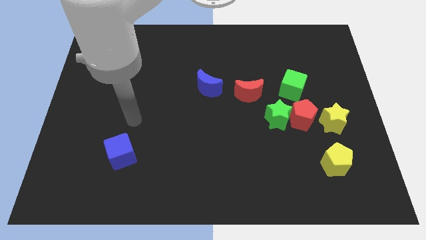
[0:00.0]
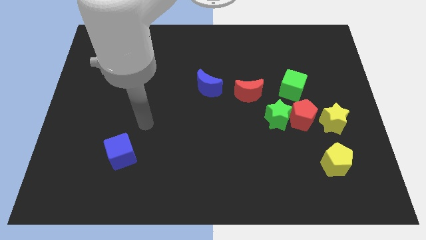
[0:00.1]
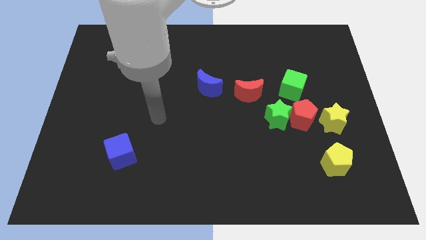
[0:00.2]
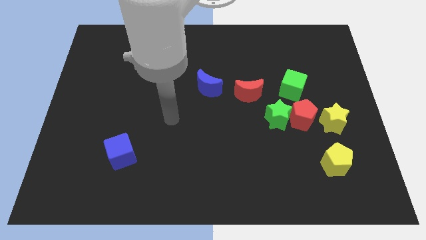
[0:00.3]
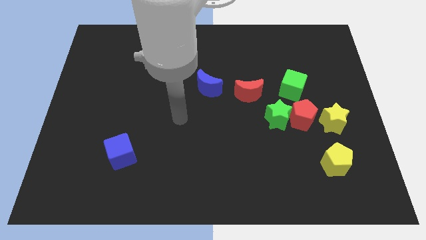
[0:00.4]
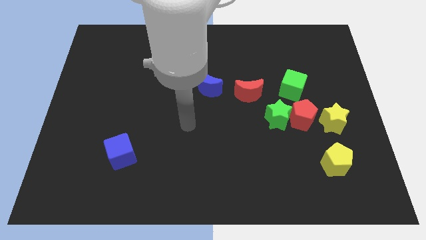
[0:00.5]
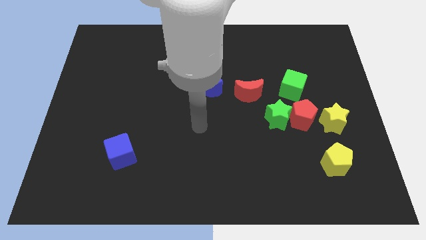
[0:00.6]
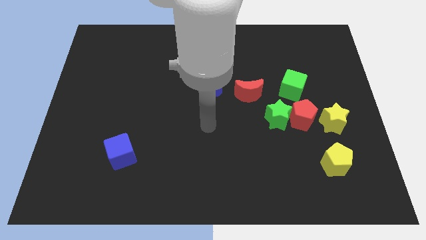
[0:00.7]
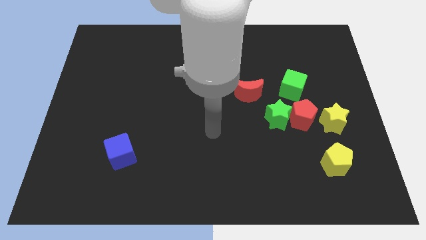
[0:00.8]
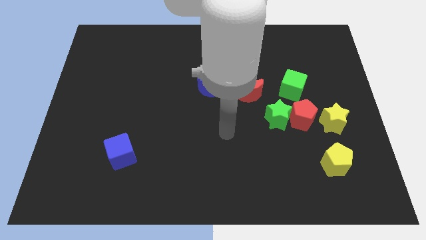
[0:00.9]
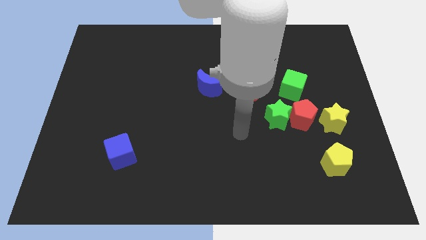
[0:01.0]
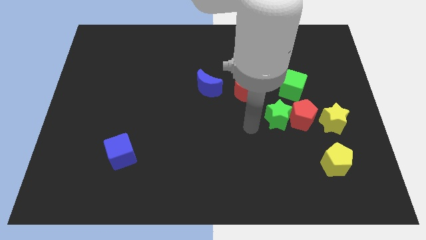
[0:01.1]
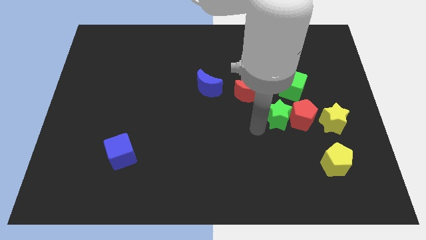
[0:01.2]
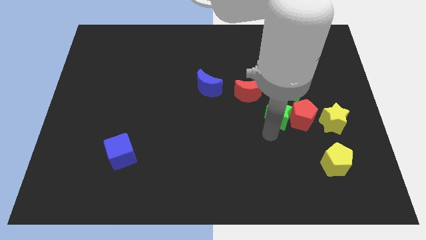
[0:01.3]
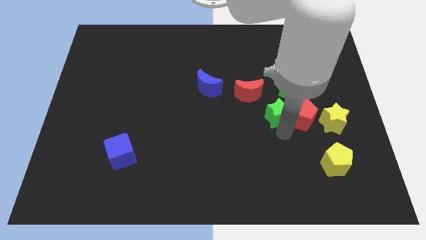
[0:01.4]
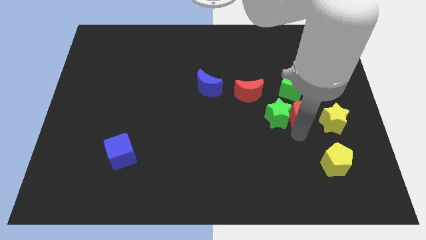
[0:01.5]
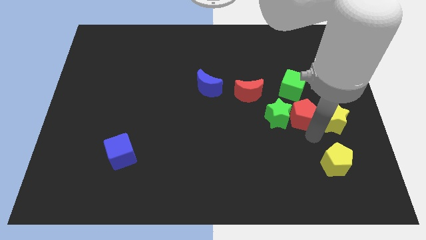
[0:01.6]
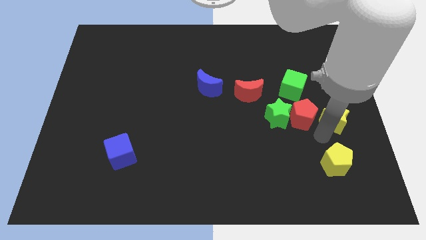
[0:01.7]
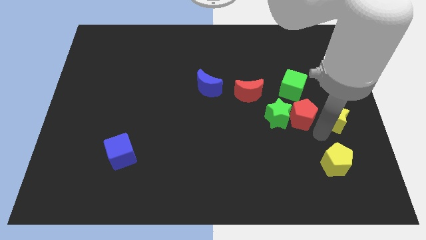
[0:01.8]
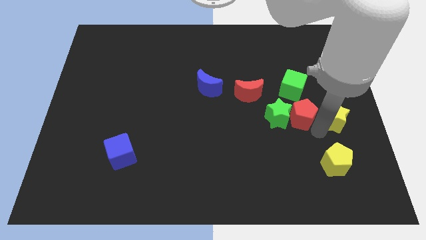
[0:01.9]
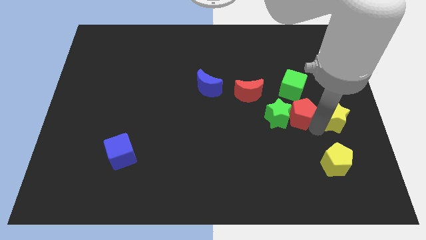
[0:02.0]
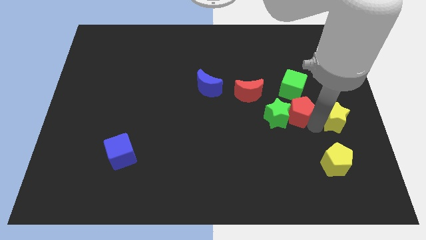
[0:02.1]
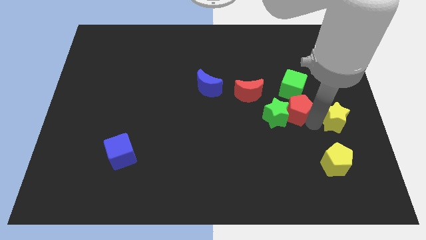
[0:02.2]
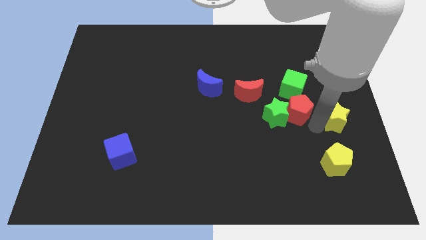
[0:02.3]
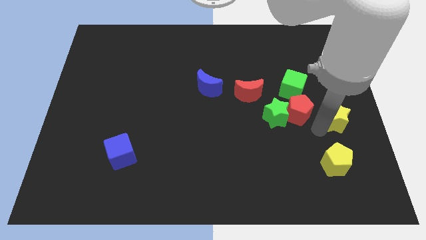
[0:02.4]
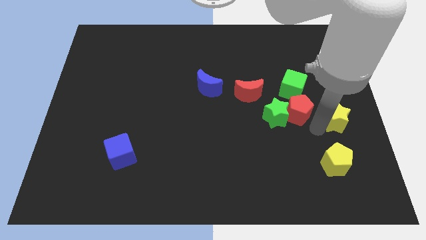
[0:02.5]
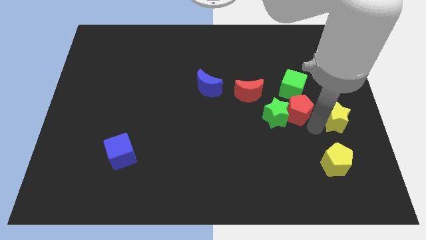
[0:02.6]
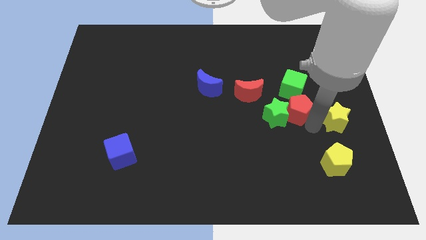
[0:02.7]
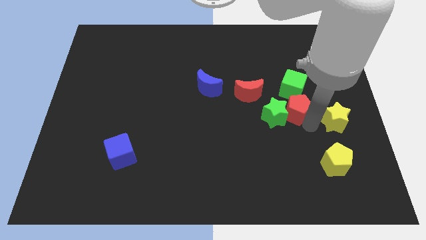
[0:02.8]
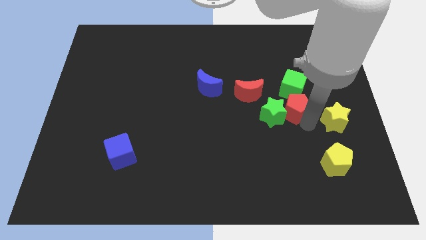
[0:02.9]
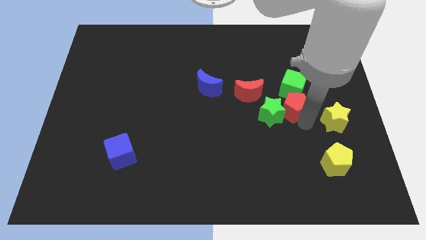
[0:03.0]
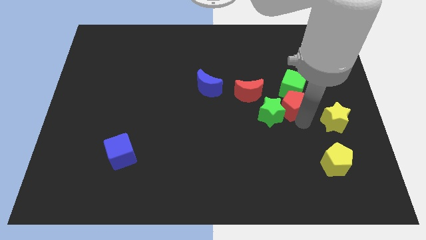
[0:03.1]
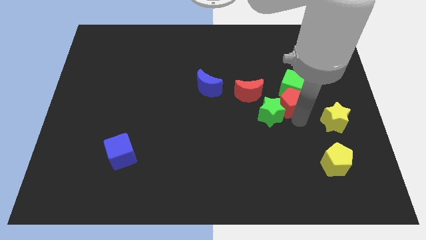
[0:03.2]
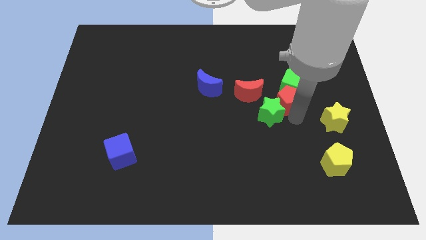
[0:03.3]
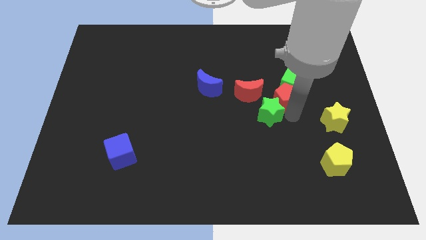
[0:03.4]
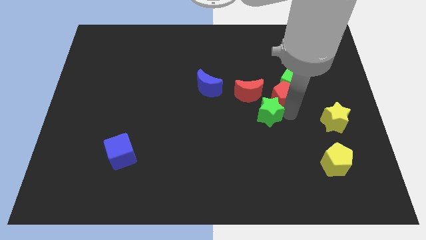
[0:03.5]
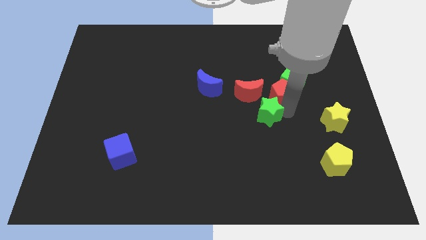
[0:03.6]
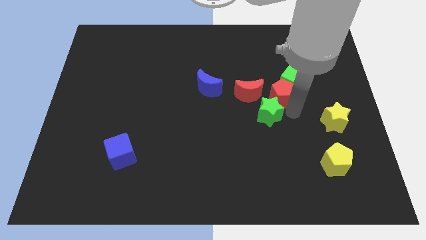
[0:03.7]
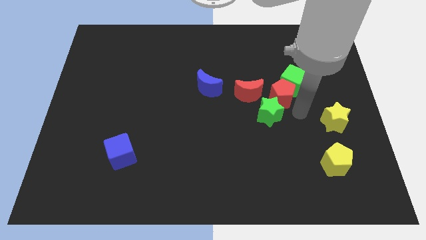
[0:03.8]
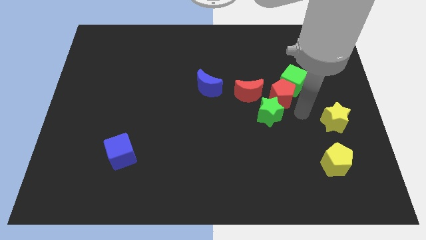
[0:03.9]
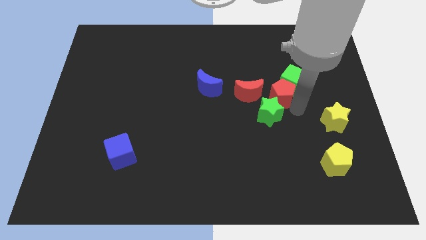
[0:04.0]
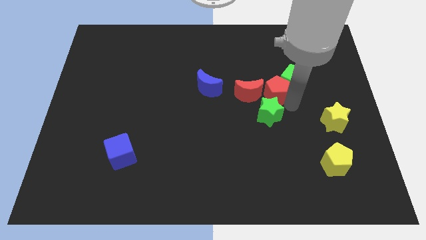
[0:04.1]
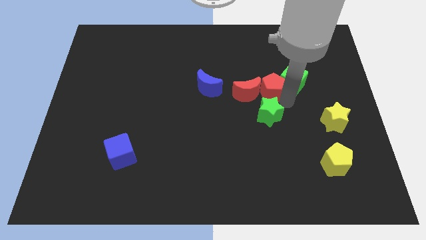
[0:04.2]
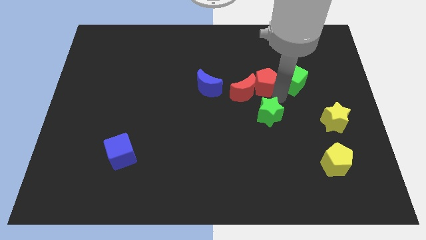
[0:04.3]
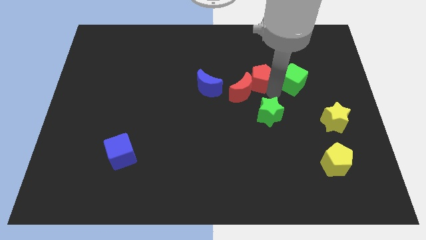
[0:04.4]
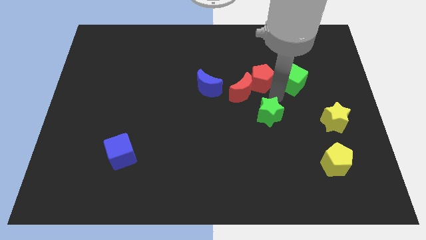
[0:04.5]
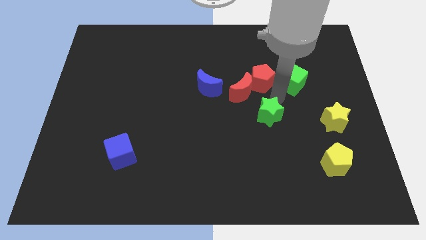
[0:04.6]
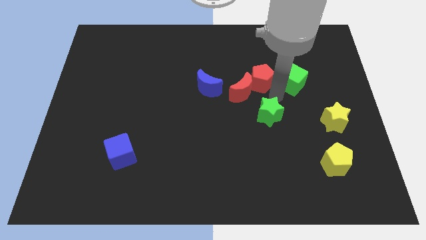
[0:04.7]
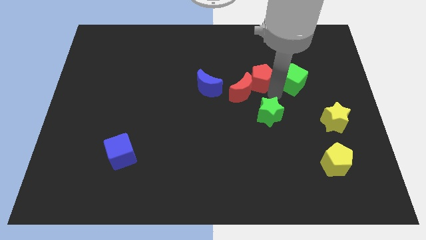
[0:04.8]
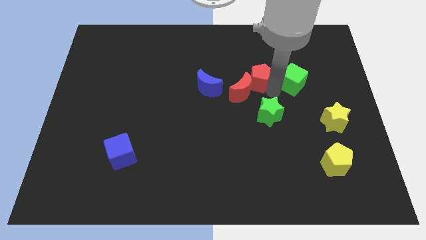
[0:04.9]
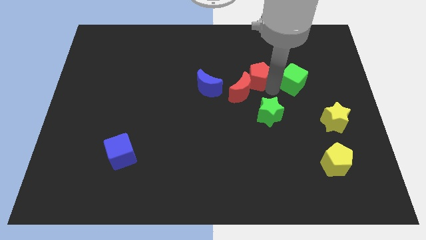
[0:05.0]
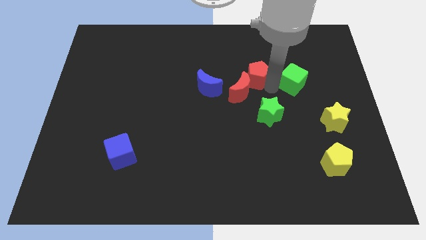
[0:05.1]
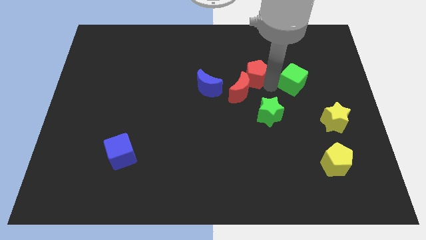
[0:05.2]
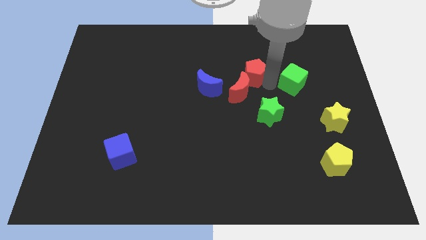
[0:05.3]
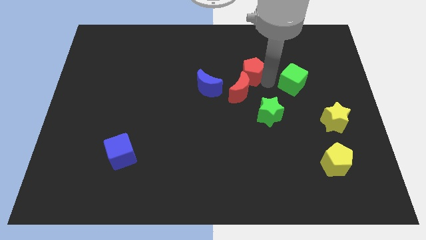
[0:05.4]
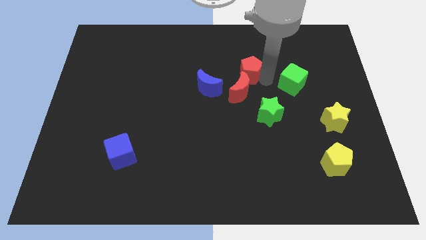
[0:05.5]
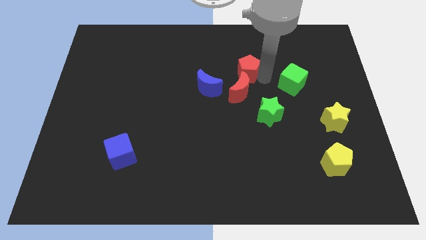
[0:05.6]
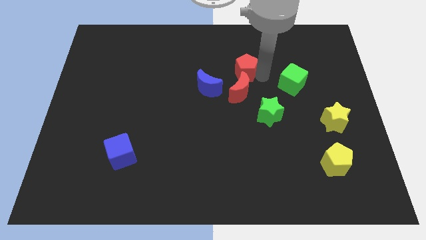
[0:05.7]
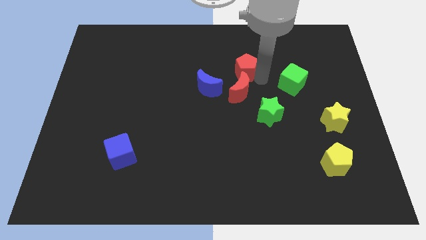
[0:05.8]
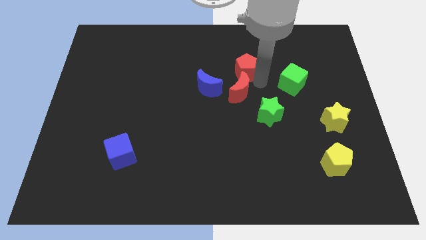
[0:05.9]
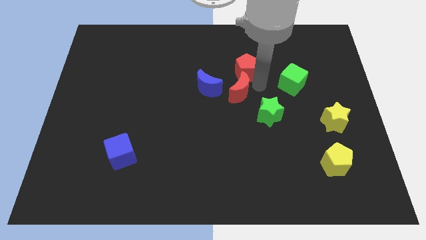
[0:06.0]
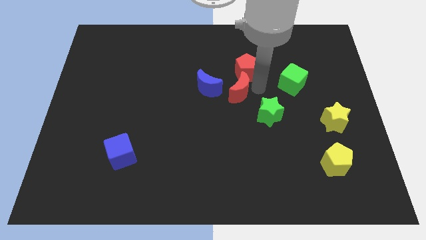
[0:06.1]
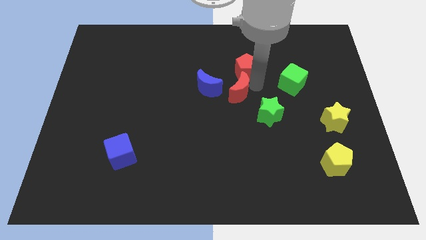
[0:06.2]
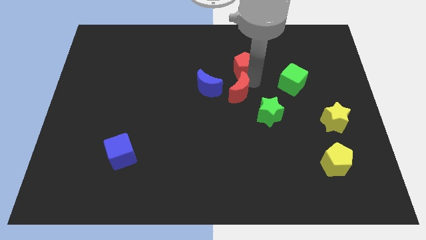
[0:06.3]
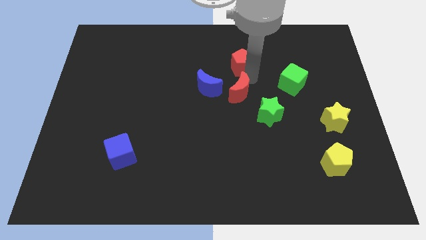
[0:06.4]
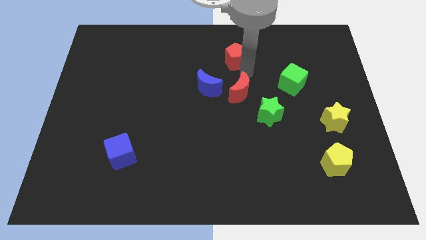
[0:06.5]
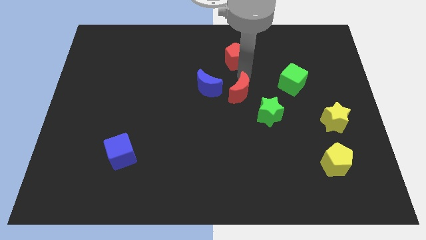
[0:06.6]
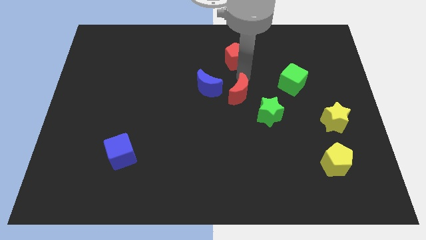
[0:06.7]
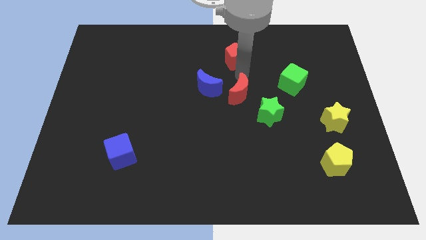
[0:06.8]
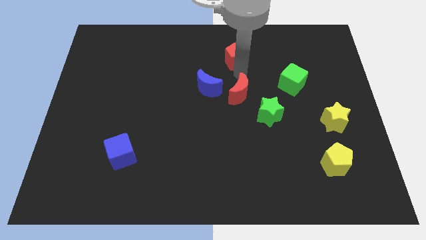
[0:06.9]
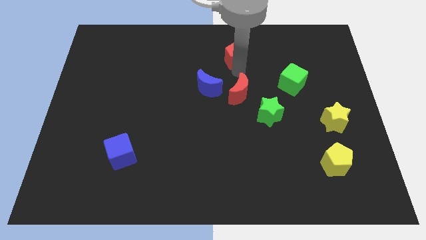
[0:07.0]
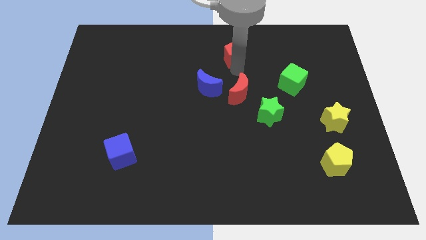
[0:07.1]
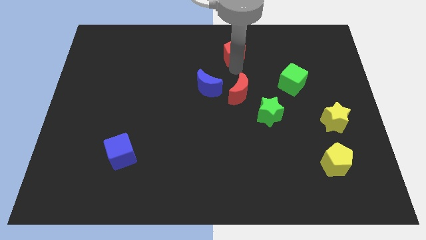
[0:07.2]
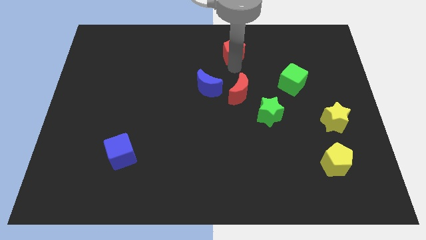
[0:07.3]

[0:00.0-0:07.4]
slide the red pentagon to the top
